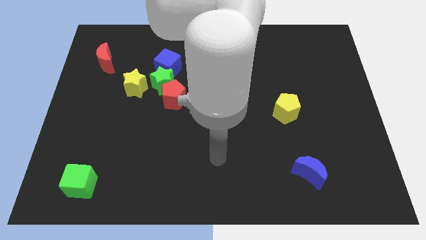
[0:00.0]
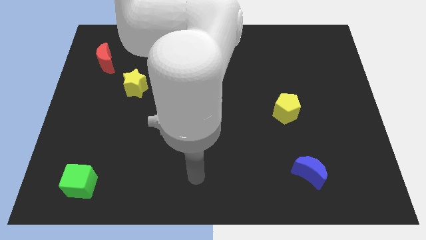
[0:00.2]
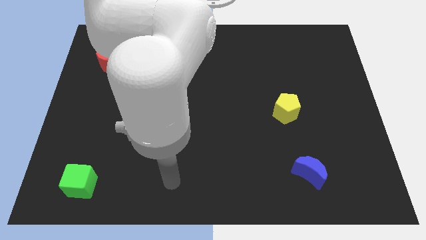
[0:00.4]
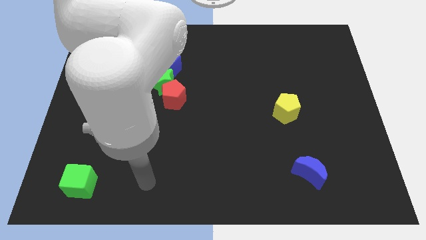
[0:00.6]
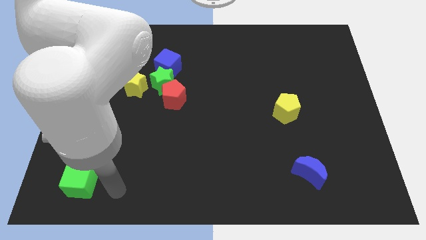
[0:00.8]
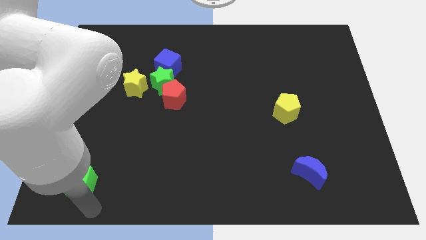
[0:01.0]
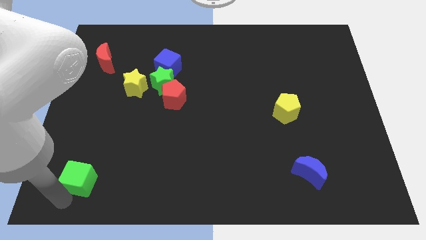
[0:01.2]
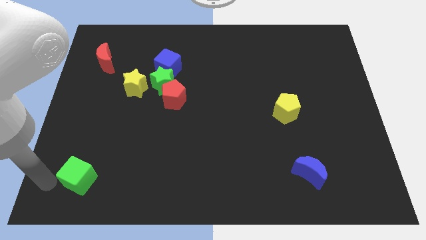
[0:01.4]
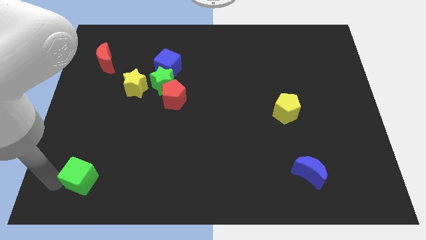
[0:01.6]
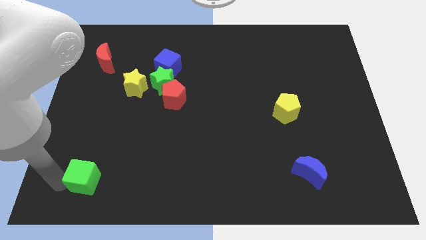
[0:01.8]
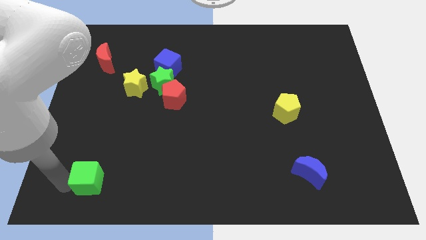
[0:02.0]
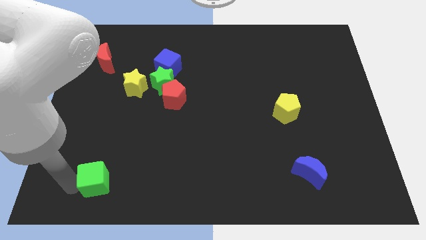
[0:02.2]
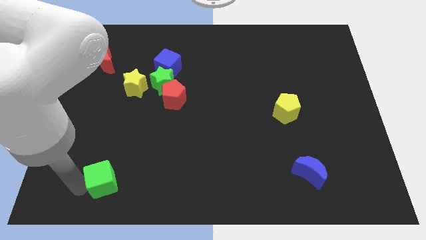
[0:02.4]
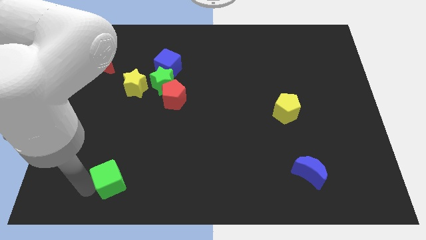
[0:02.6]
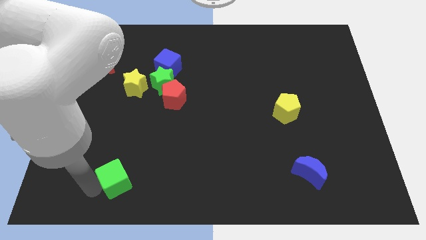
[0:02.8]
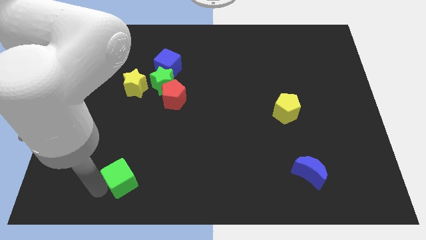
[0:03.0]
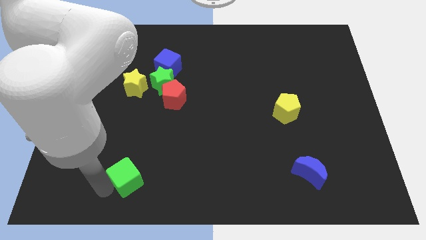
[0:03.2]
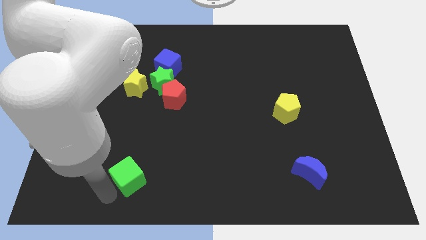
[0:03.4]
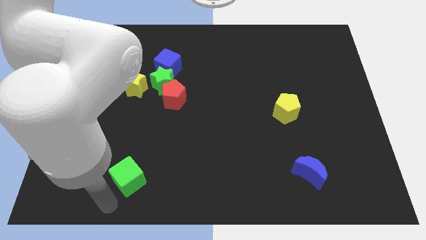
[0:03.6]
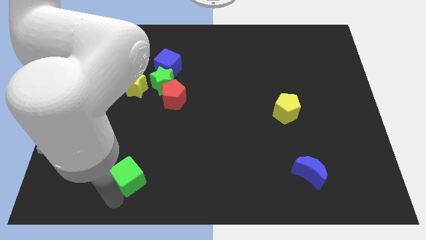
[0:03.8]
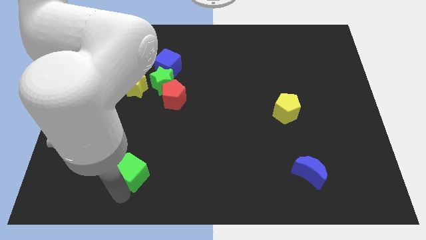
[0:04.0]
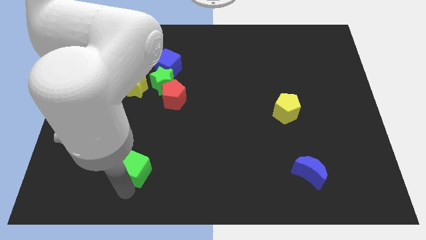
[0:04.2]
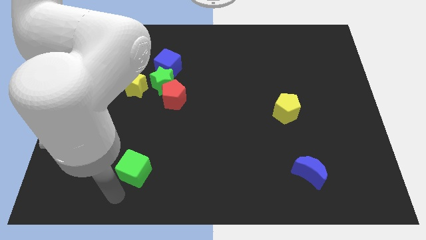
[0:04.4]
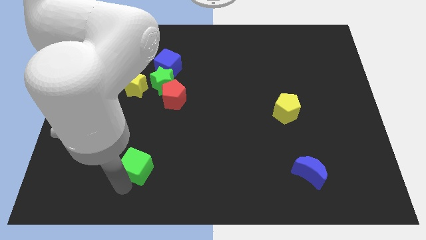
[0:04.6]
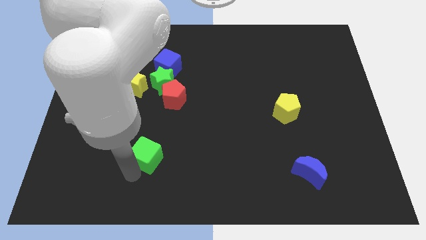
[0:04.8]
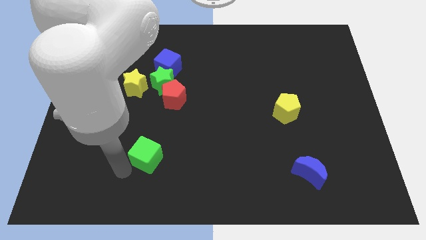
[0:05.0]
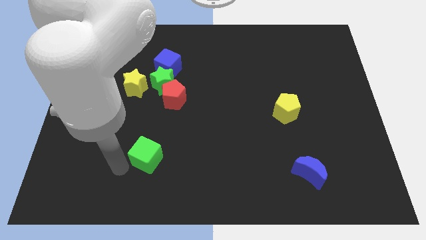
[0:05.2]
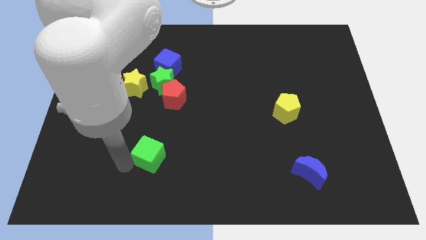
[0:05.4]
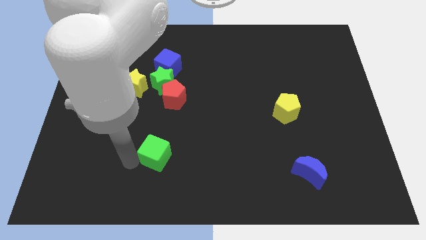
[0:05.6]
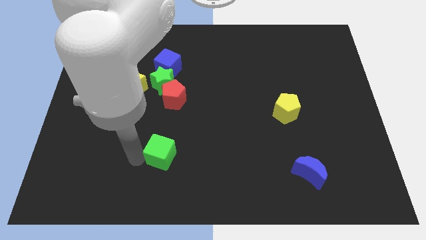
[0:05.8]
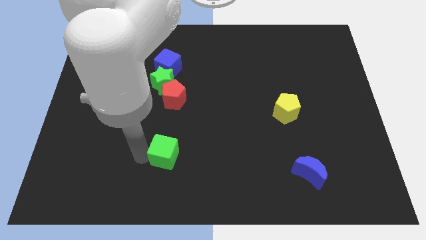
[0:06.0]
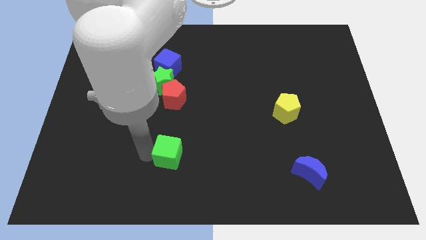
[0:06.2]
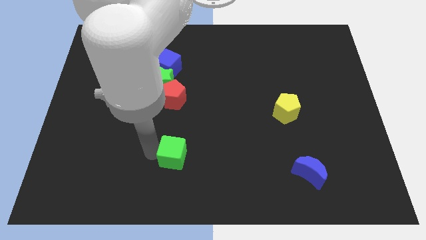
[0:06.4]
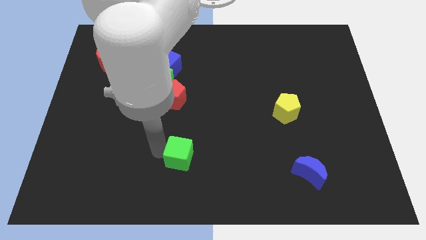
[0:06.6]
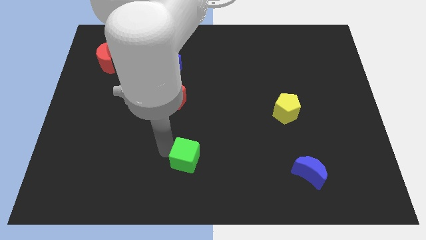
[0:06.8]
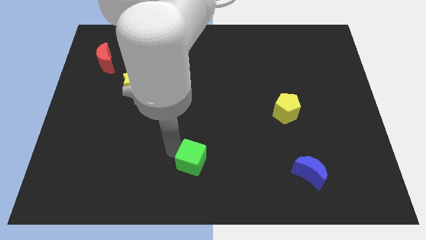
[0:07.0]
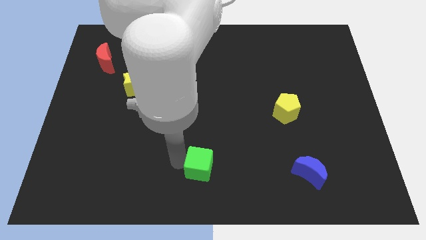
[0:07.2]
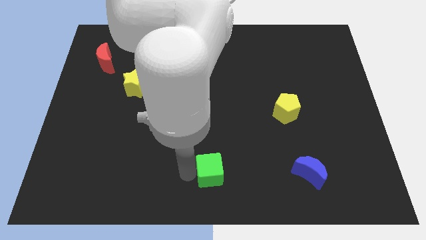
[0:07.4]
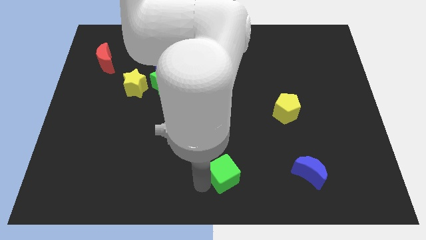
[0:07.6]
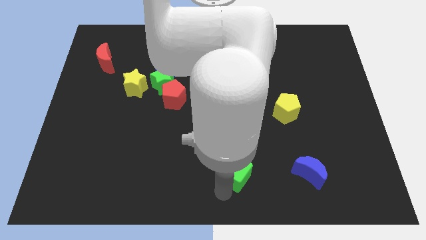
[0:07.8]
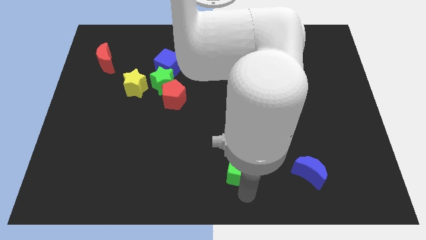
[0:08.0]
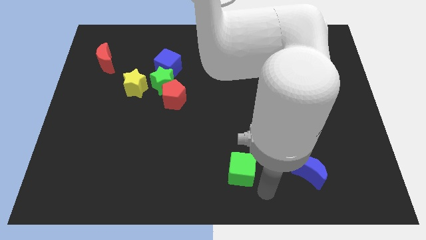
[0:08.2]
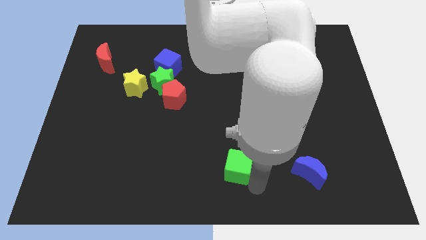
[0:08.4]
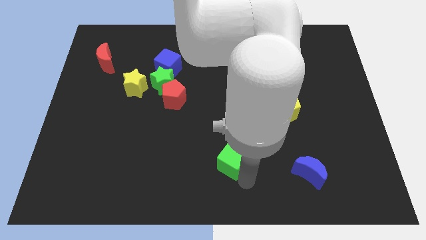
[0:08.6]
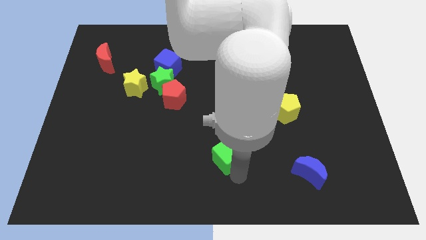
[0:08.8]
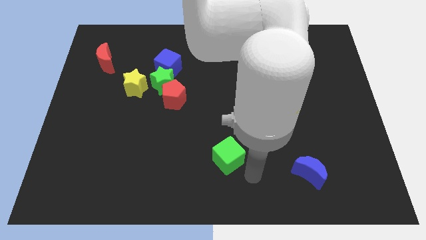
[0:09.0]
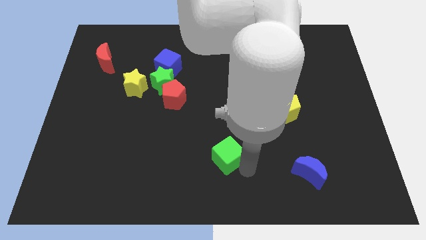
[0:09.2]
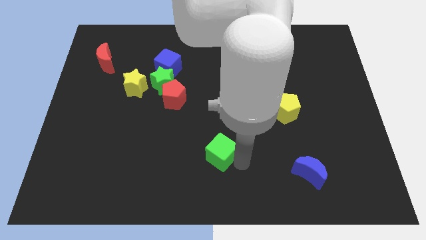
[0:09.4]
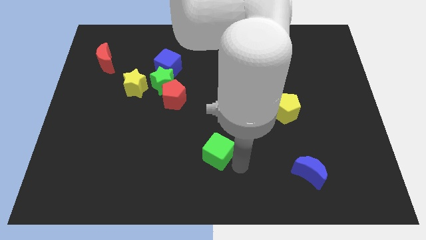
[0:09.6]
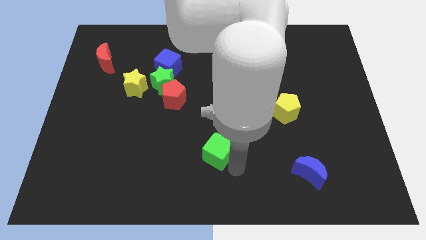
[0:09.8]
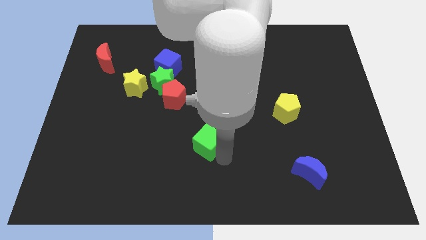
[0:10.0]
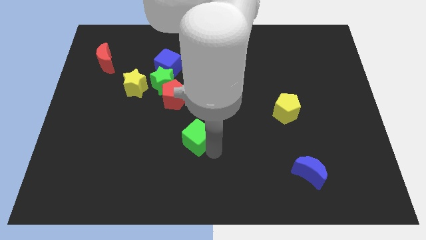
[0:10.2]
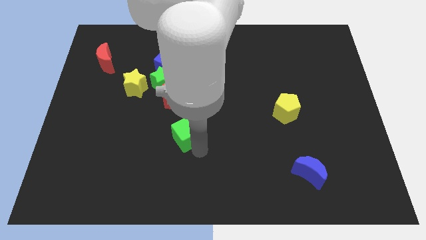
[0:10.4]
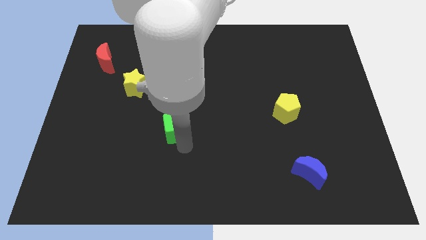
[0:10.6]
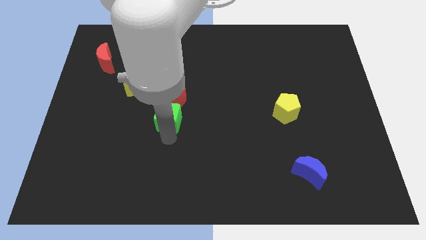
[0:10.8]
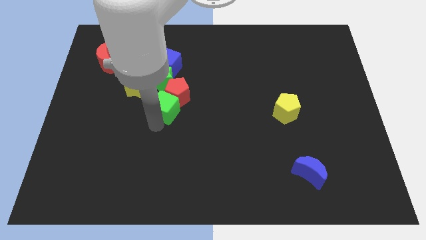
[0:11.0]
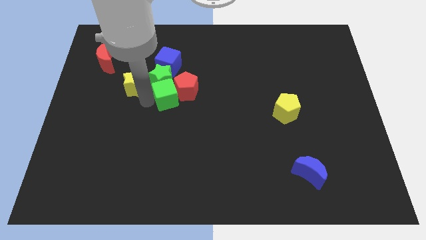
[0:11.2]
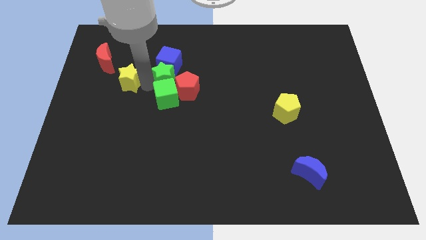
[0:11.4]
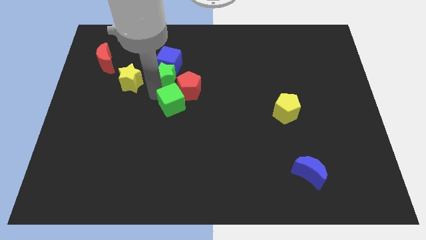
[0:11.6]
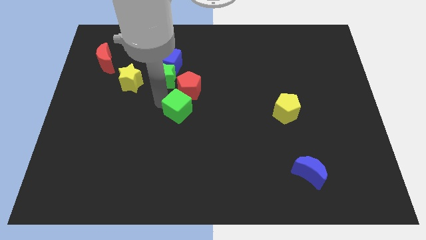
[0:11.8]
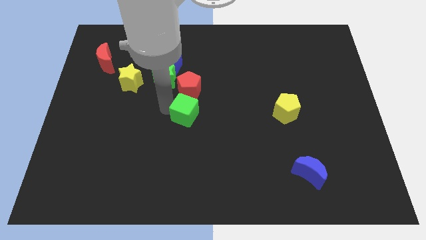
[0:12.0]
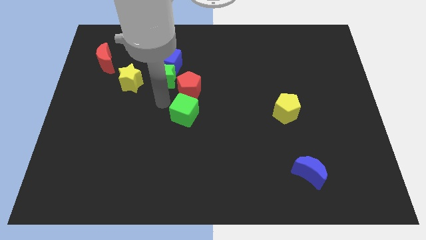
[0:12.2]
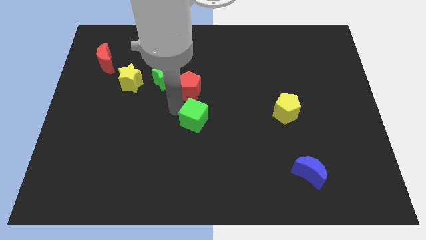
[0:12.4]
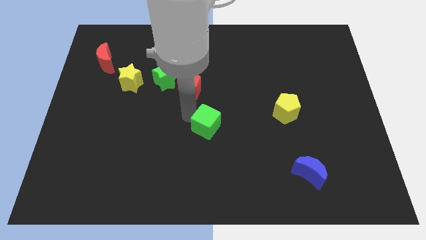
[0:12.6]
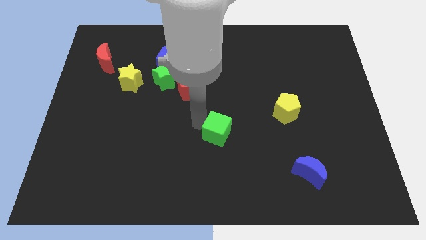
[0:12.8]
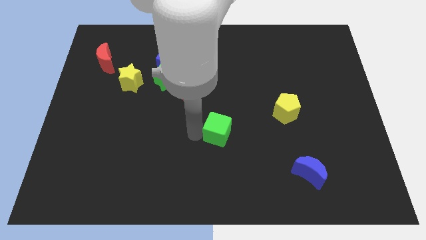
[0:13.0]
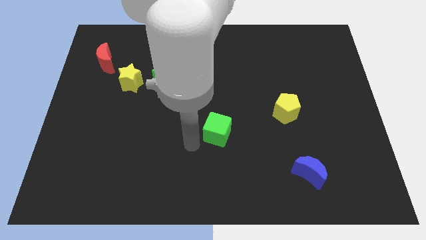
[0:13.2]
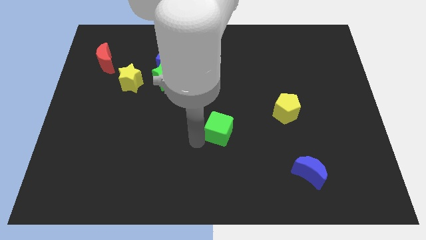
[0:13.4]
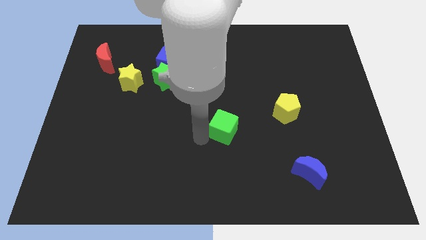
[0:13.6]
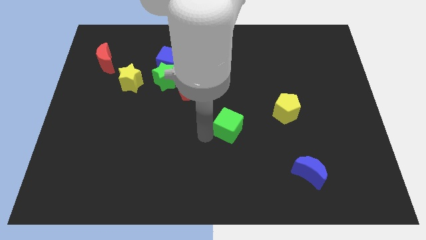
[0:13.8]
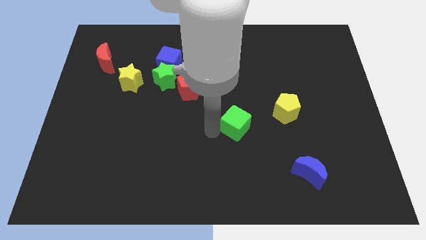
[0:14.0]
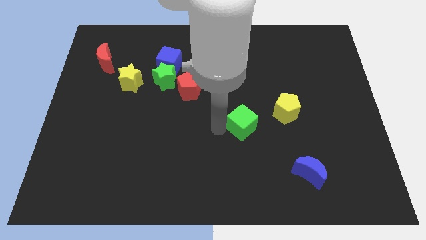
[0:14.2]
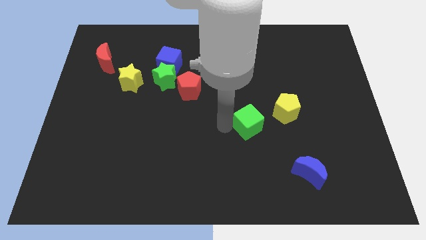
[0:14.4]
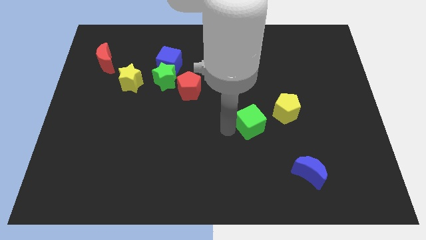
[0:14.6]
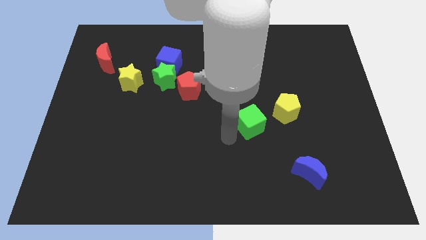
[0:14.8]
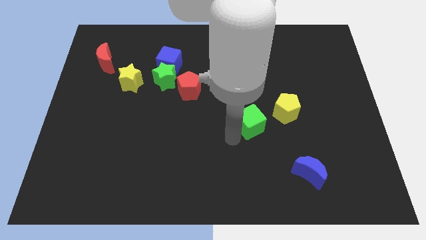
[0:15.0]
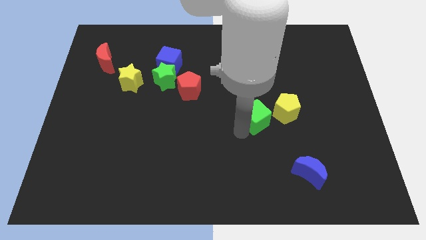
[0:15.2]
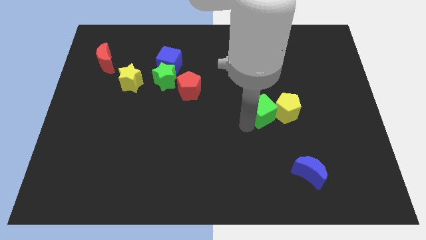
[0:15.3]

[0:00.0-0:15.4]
slide the green cube next to the yellow pentagon
